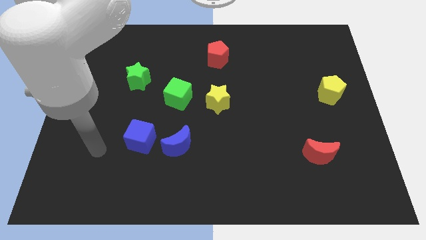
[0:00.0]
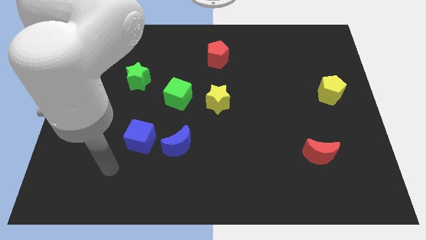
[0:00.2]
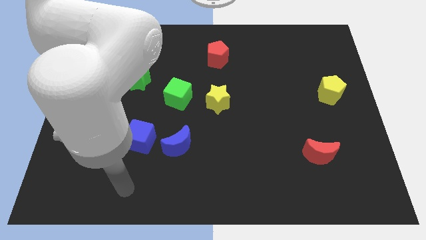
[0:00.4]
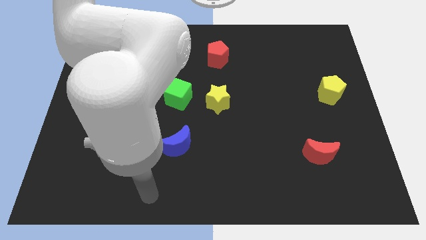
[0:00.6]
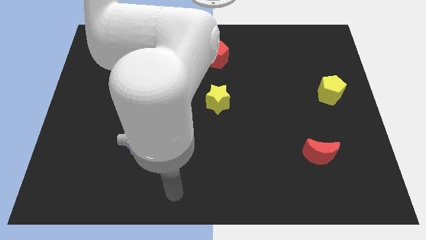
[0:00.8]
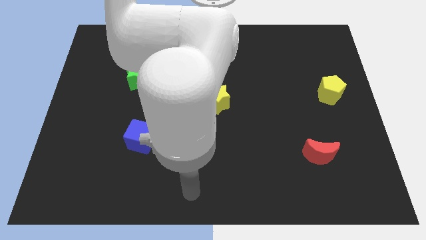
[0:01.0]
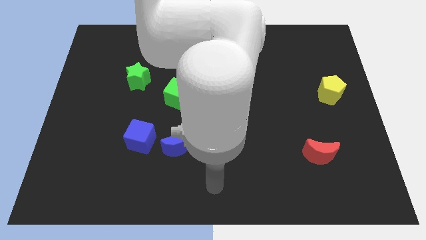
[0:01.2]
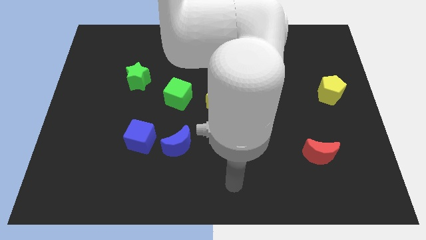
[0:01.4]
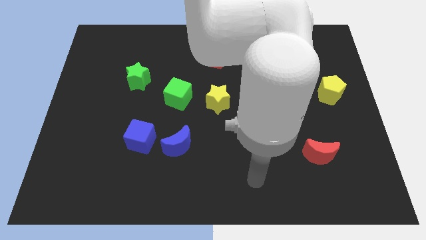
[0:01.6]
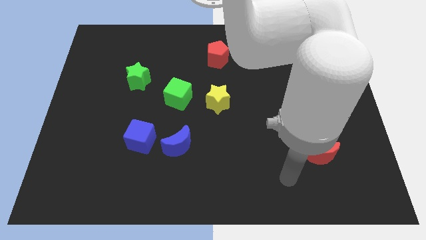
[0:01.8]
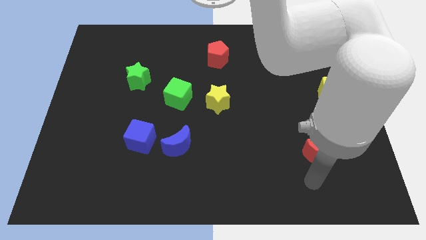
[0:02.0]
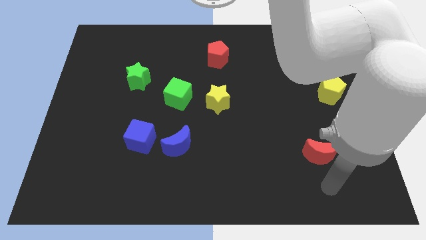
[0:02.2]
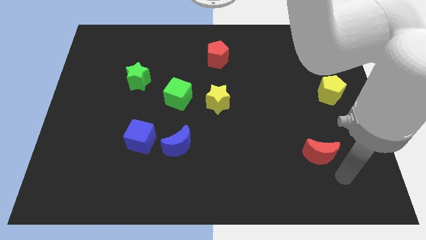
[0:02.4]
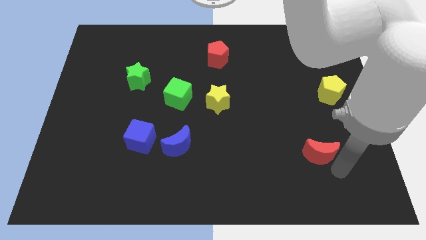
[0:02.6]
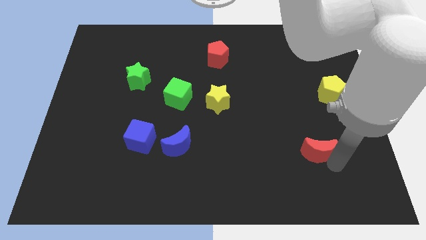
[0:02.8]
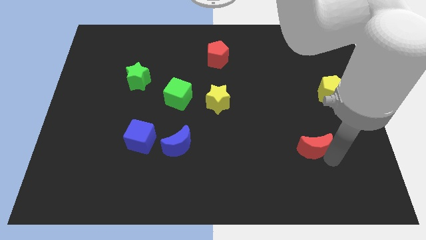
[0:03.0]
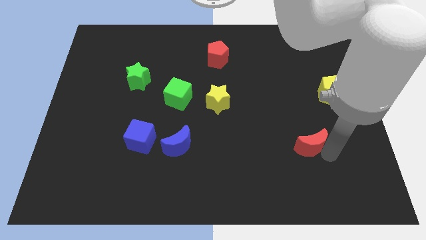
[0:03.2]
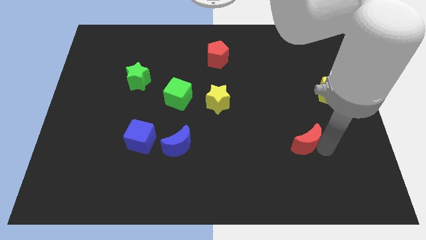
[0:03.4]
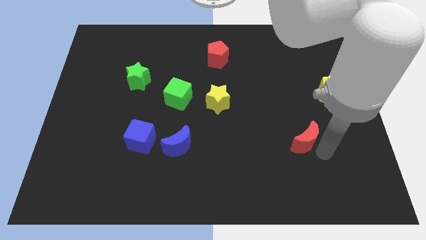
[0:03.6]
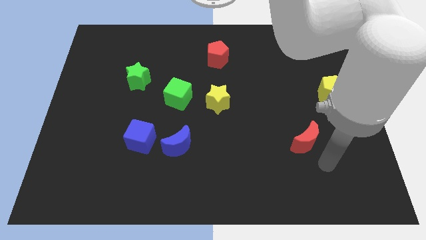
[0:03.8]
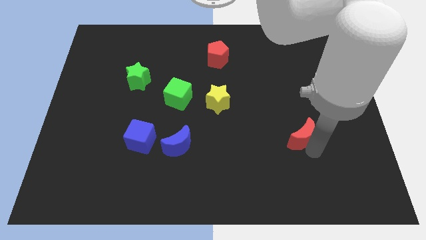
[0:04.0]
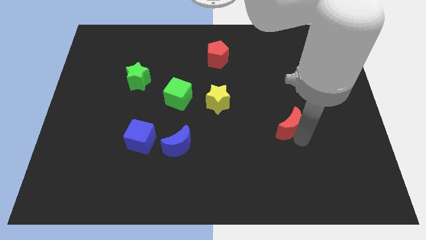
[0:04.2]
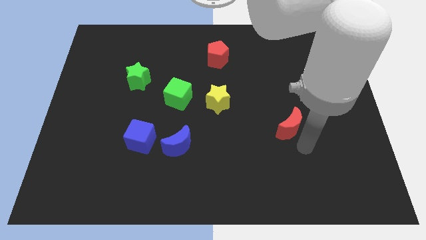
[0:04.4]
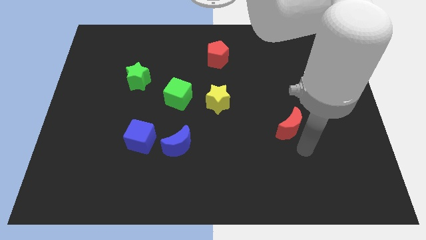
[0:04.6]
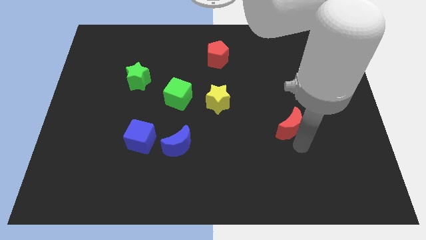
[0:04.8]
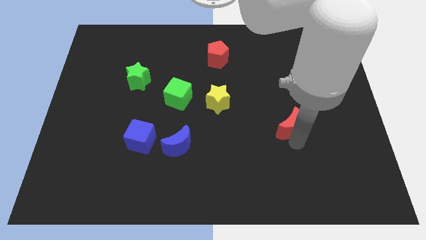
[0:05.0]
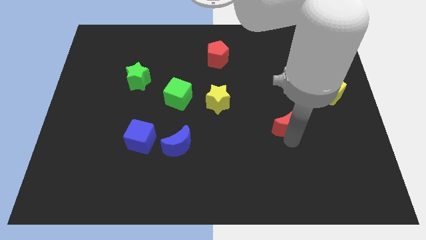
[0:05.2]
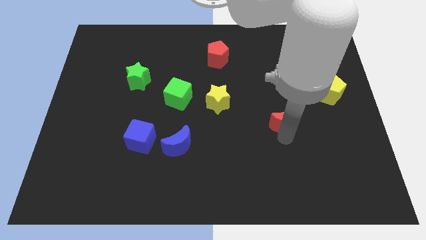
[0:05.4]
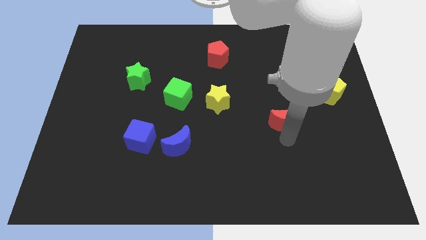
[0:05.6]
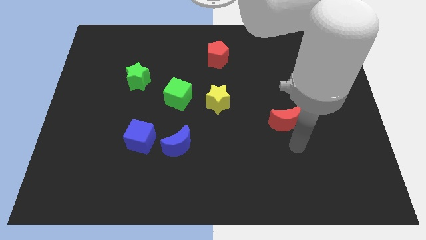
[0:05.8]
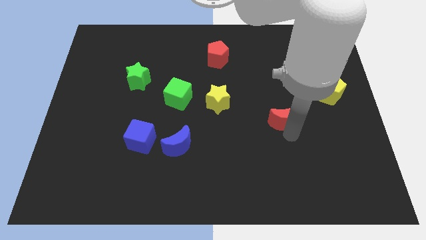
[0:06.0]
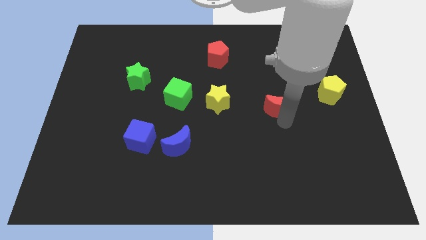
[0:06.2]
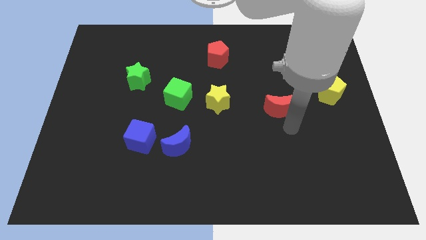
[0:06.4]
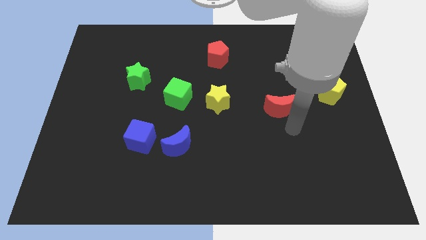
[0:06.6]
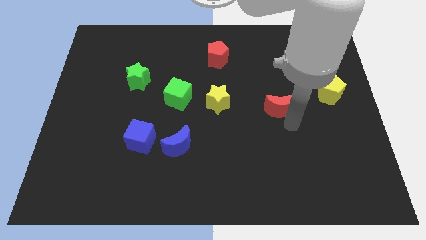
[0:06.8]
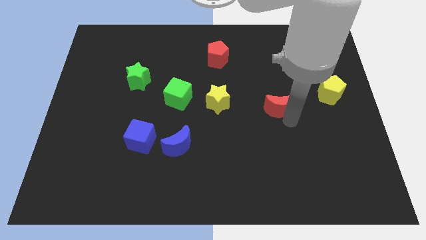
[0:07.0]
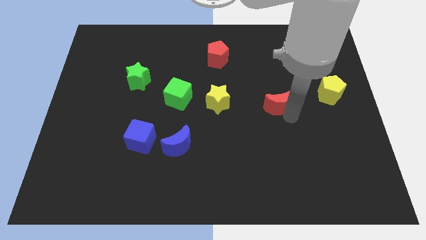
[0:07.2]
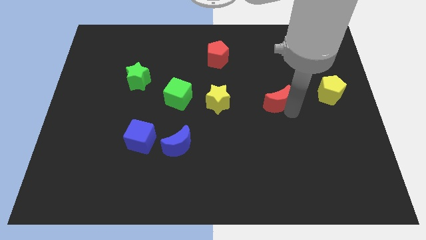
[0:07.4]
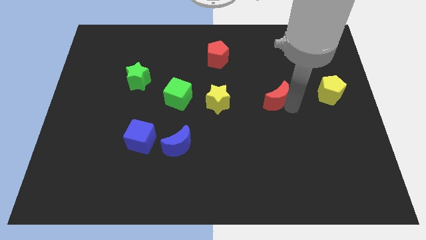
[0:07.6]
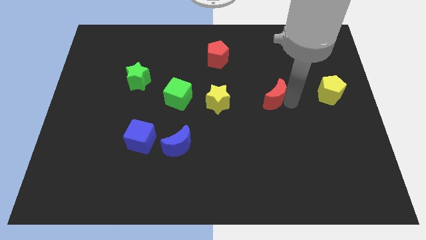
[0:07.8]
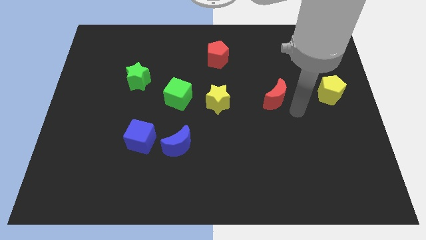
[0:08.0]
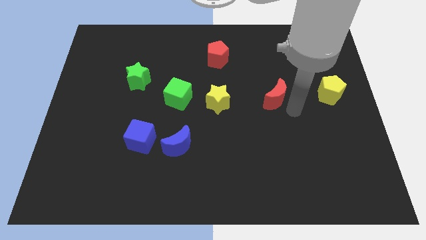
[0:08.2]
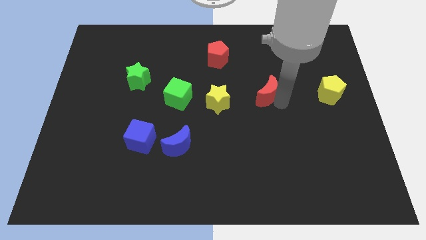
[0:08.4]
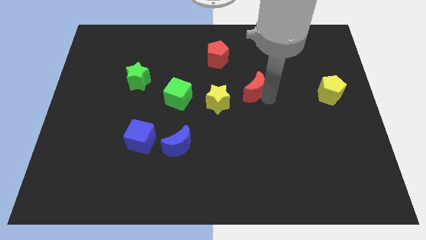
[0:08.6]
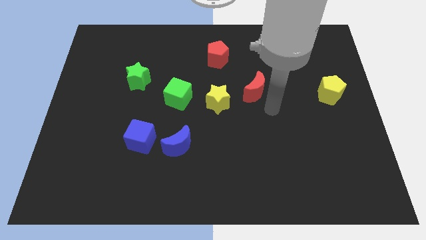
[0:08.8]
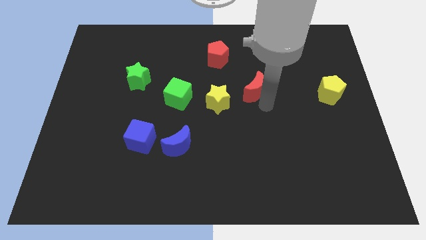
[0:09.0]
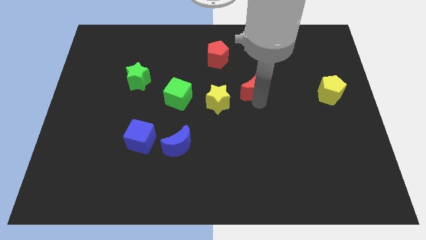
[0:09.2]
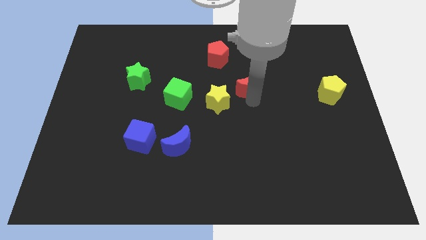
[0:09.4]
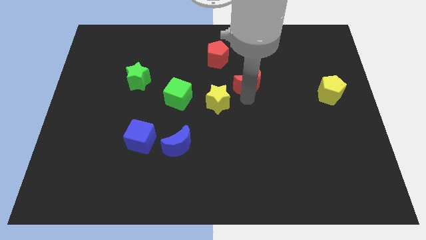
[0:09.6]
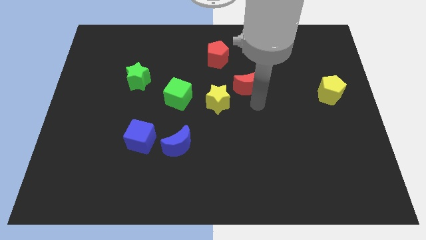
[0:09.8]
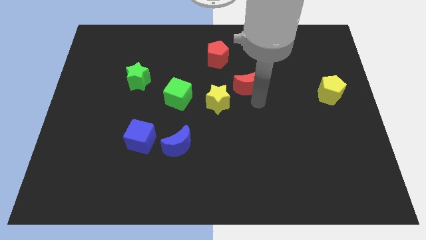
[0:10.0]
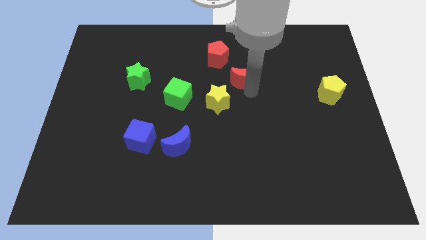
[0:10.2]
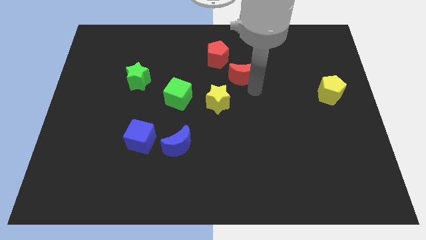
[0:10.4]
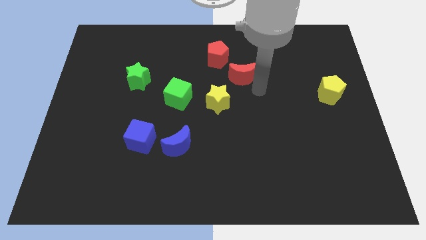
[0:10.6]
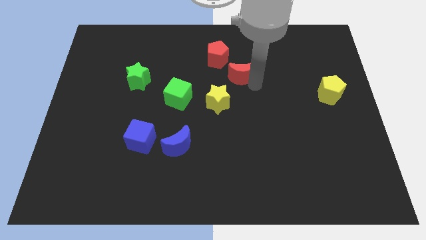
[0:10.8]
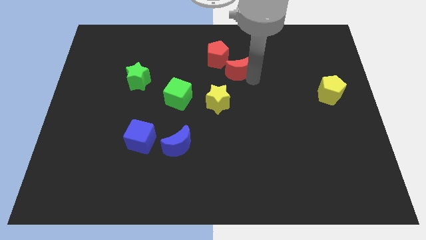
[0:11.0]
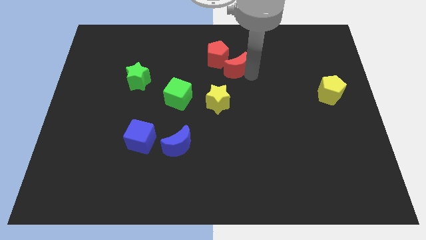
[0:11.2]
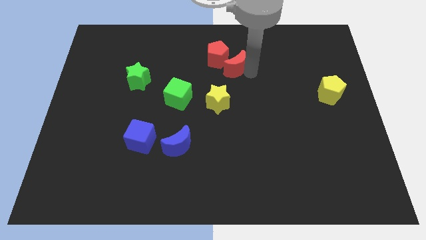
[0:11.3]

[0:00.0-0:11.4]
slide the red moon next to the red pentagon

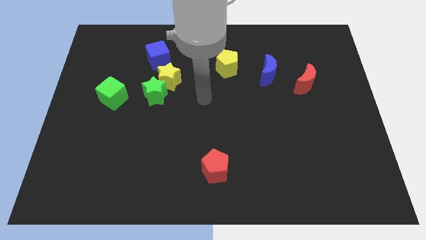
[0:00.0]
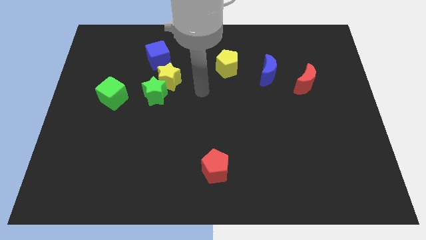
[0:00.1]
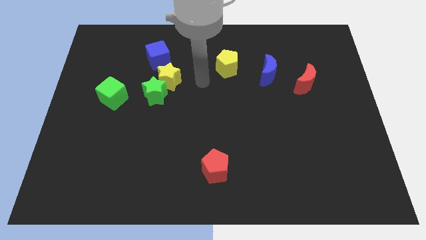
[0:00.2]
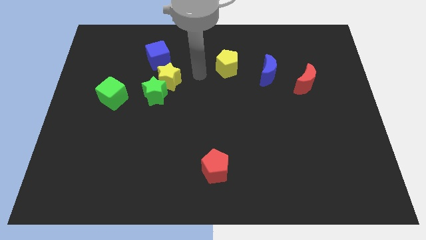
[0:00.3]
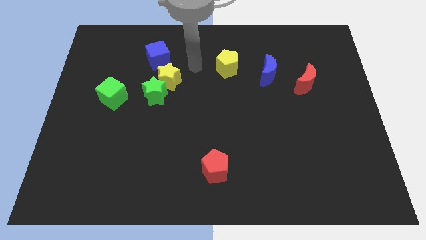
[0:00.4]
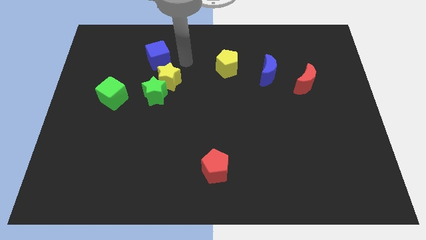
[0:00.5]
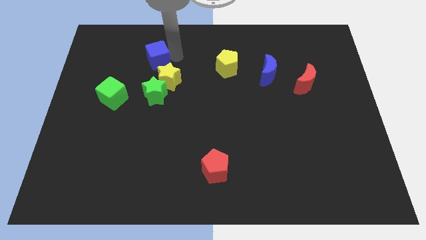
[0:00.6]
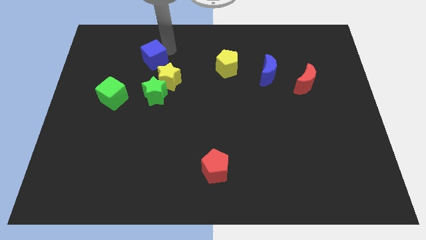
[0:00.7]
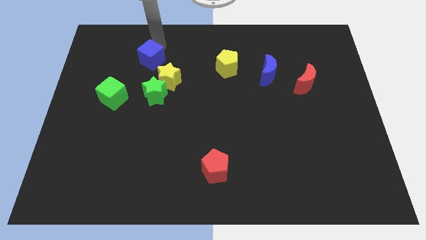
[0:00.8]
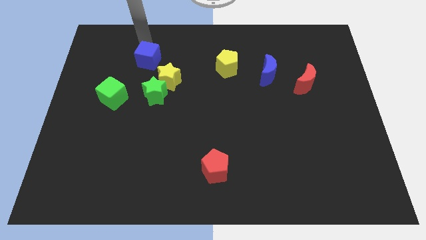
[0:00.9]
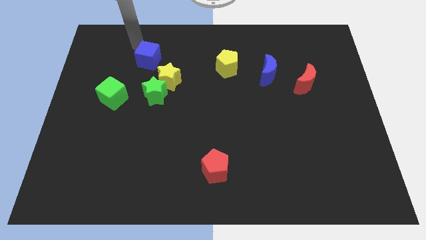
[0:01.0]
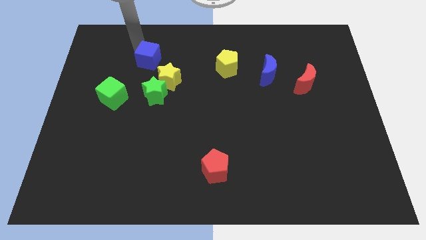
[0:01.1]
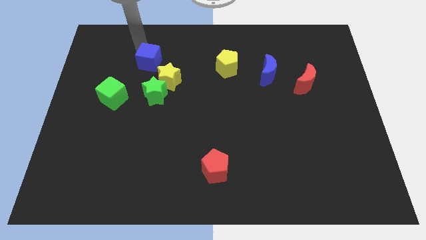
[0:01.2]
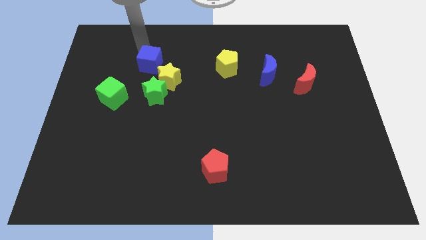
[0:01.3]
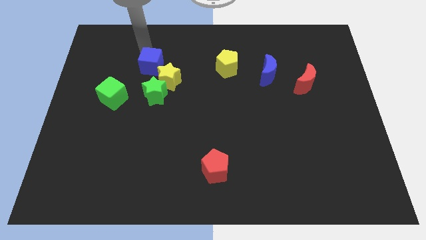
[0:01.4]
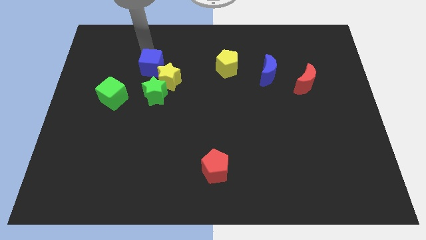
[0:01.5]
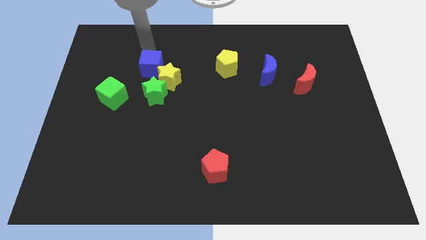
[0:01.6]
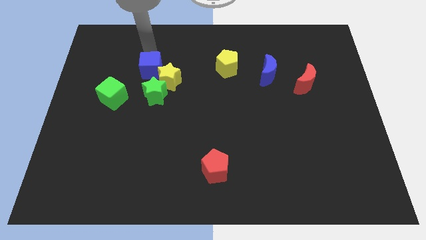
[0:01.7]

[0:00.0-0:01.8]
put the blue cube close to the yellow star
